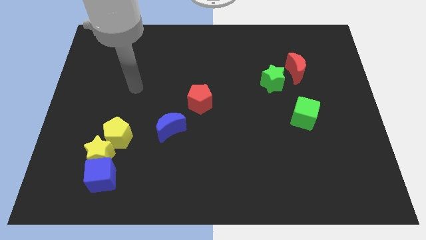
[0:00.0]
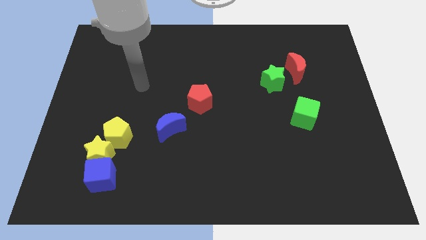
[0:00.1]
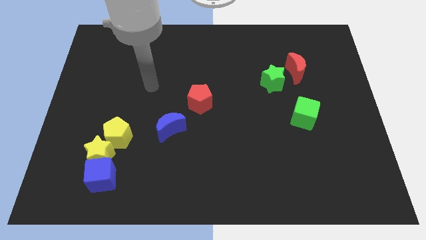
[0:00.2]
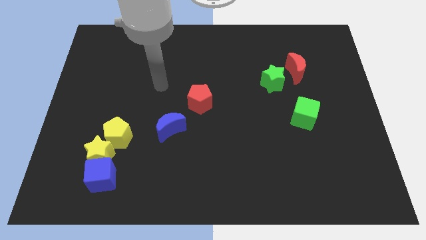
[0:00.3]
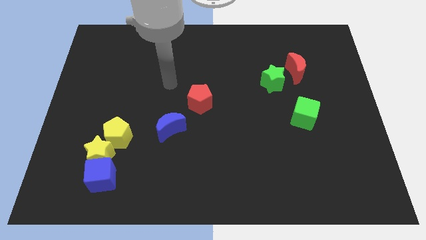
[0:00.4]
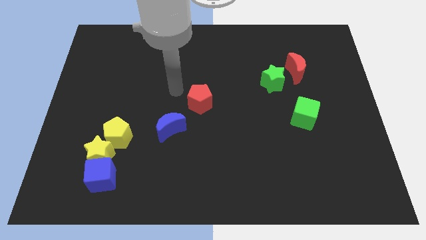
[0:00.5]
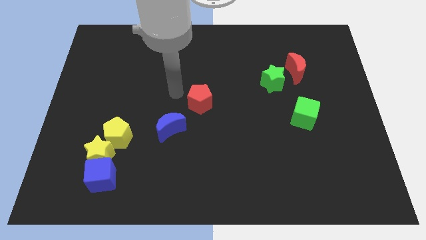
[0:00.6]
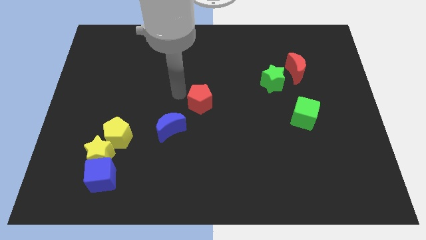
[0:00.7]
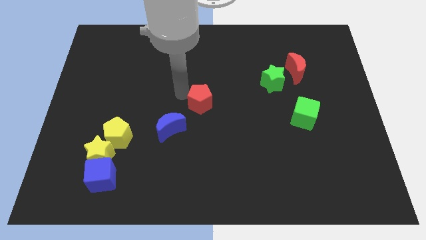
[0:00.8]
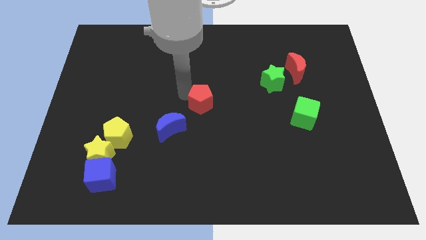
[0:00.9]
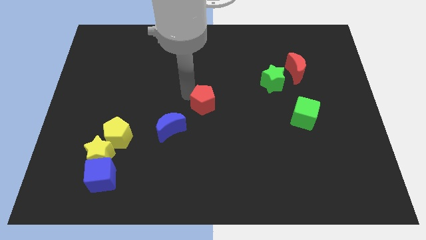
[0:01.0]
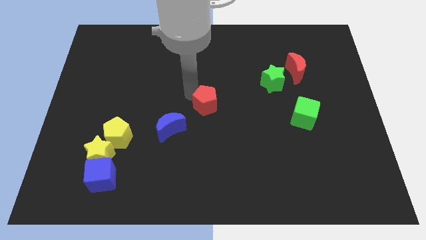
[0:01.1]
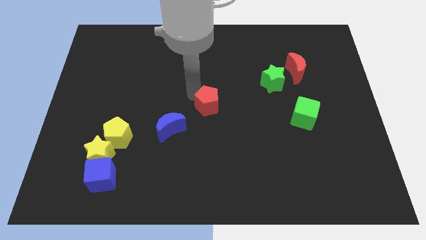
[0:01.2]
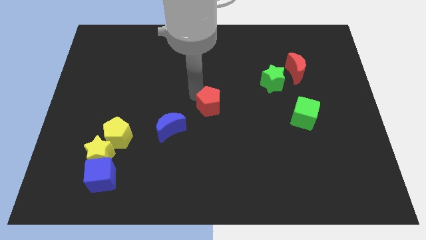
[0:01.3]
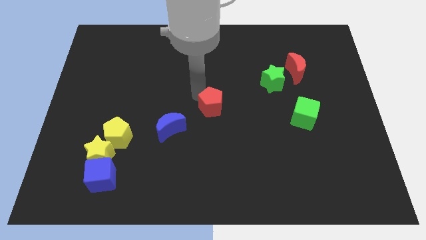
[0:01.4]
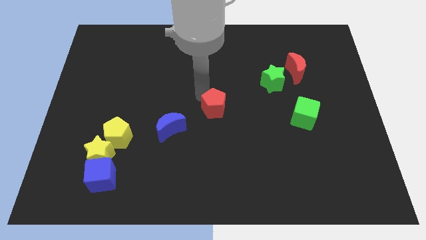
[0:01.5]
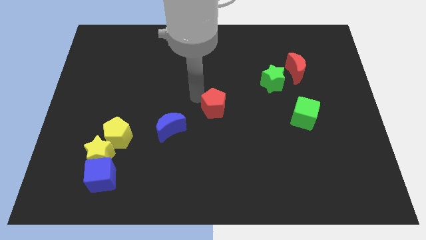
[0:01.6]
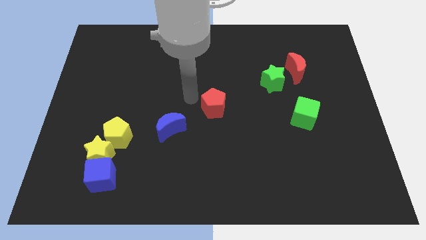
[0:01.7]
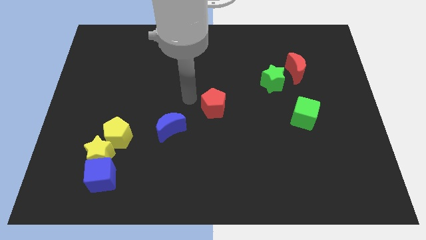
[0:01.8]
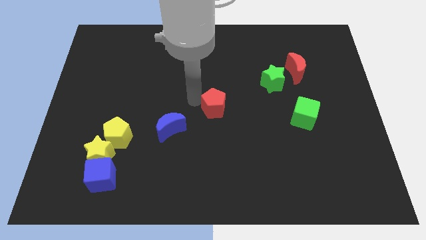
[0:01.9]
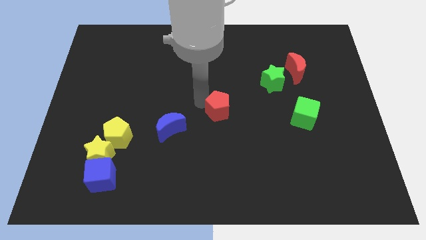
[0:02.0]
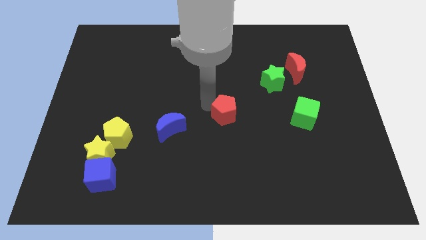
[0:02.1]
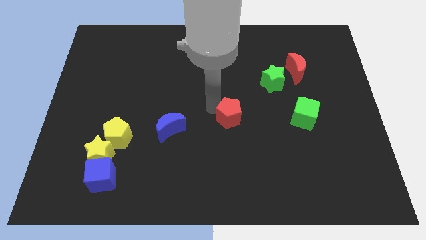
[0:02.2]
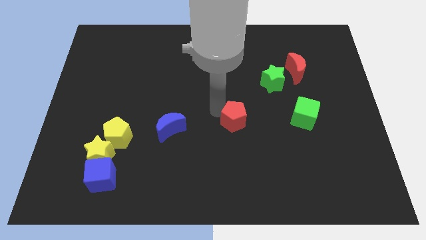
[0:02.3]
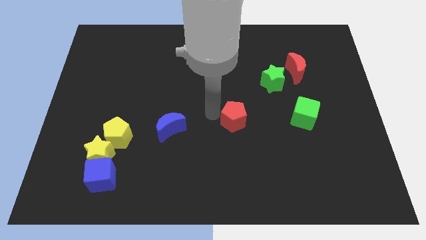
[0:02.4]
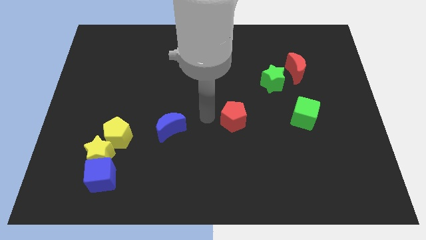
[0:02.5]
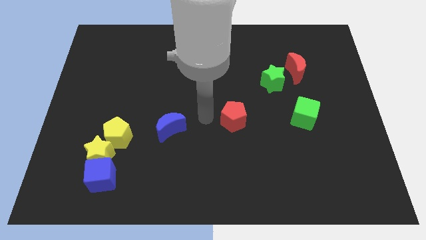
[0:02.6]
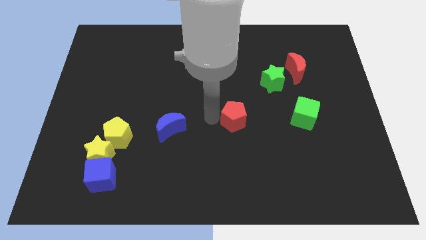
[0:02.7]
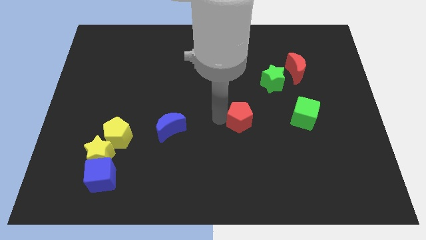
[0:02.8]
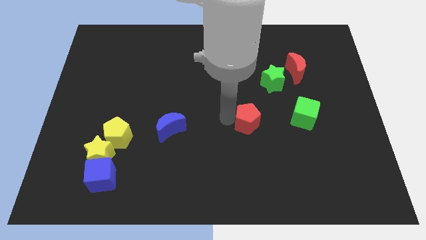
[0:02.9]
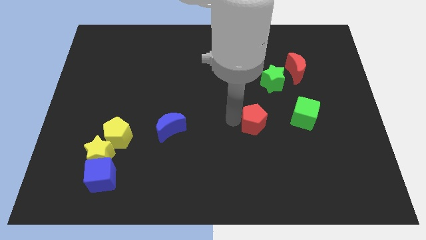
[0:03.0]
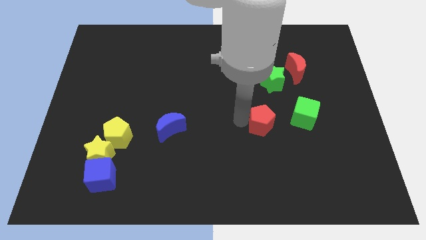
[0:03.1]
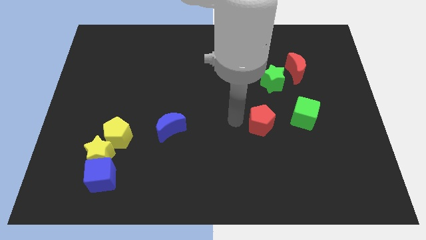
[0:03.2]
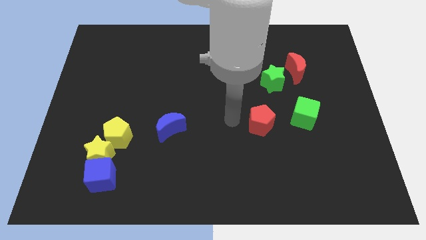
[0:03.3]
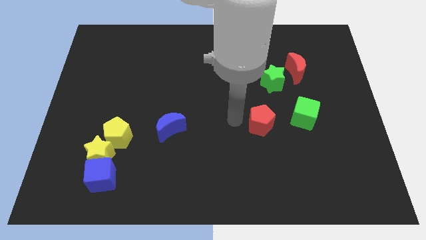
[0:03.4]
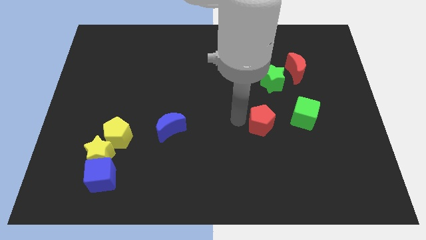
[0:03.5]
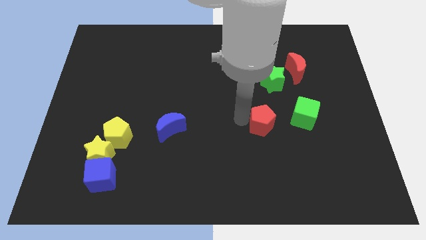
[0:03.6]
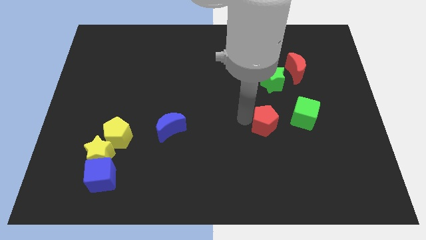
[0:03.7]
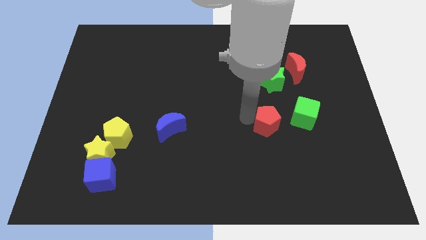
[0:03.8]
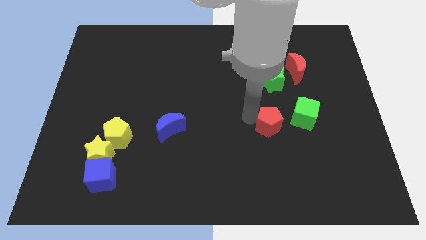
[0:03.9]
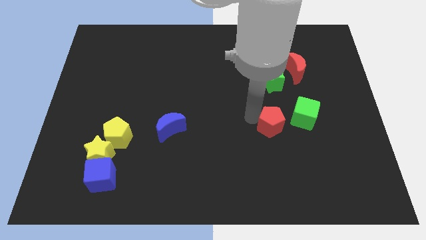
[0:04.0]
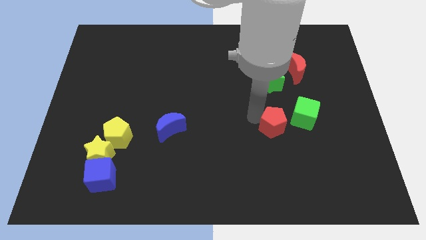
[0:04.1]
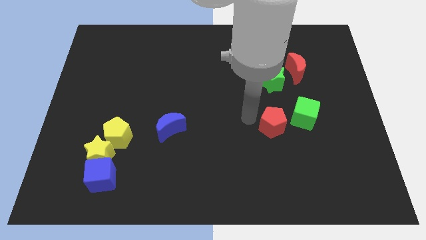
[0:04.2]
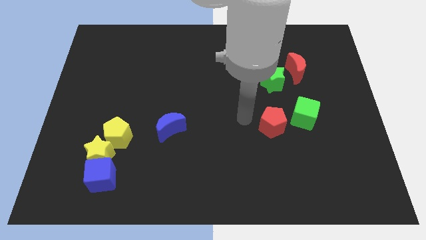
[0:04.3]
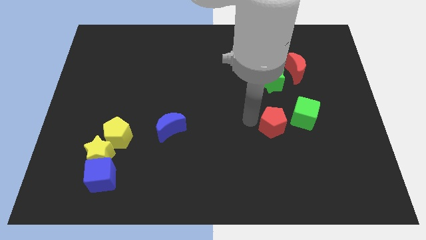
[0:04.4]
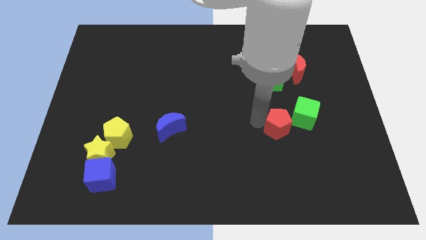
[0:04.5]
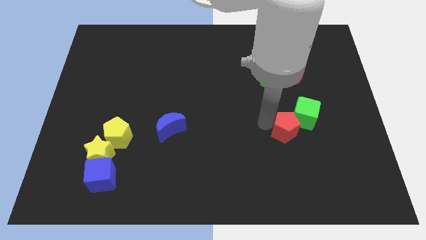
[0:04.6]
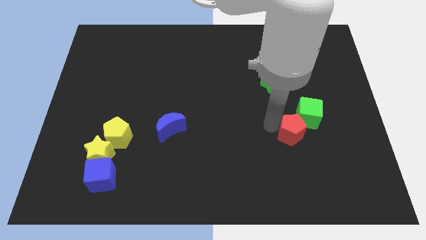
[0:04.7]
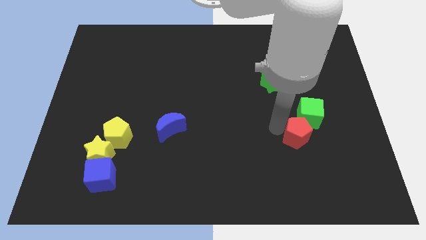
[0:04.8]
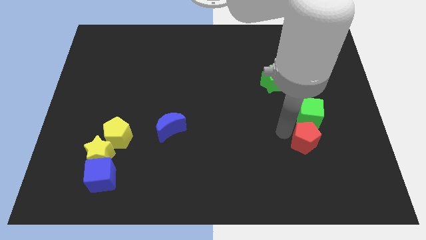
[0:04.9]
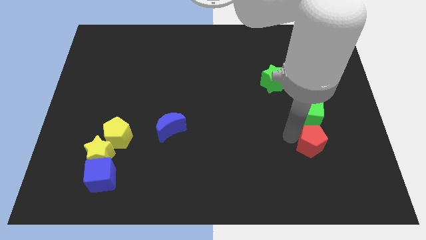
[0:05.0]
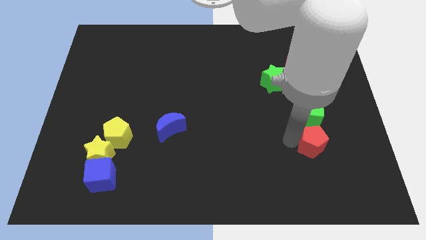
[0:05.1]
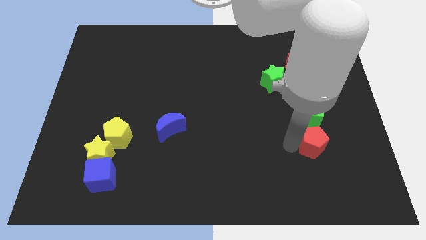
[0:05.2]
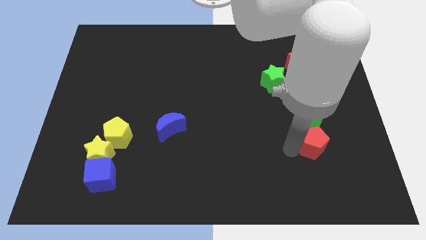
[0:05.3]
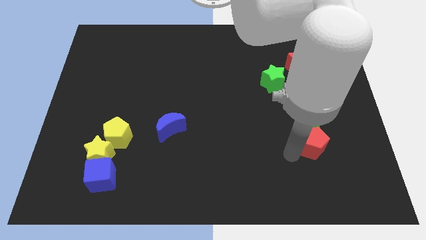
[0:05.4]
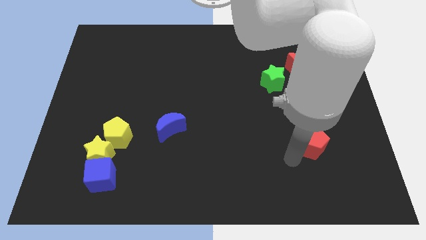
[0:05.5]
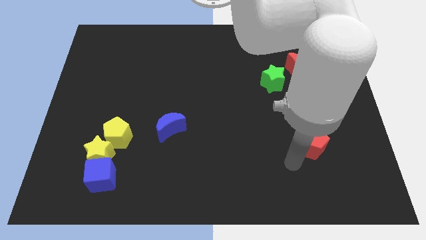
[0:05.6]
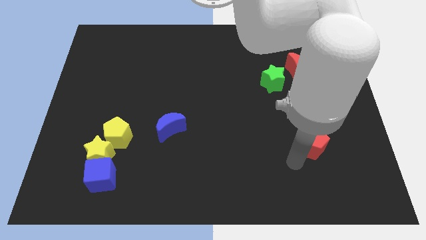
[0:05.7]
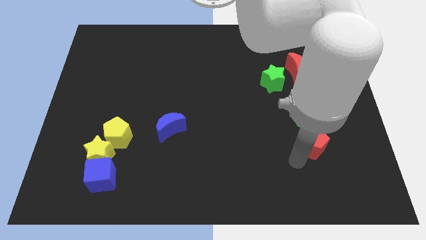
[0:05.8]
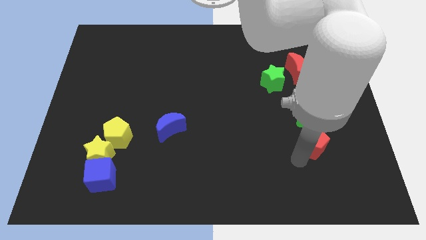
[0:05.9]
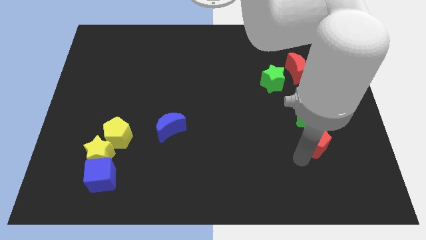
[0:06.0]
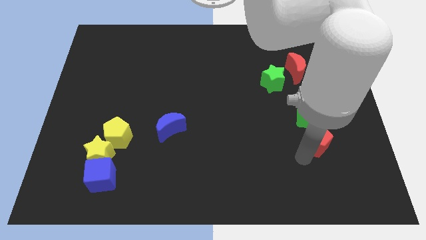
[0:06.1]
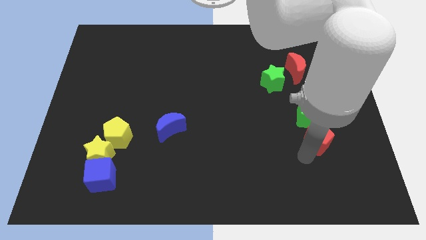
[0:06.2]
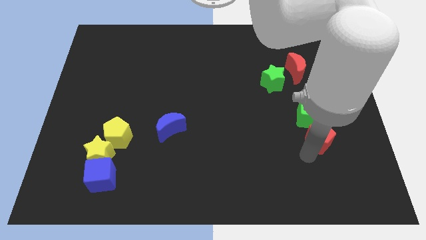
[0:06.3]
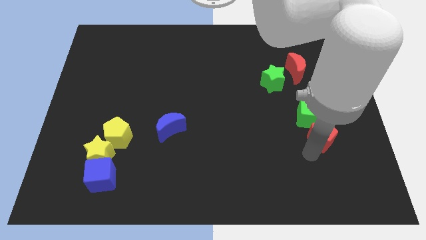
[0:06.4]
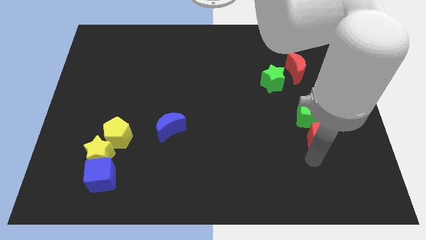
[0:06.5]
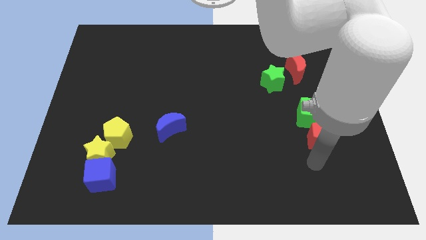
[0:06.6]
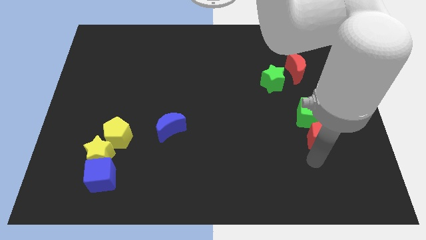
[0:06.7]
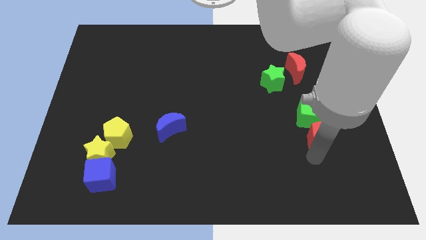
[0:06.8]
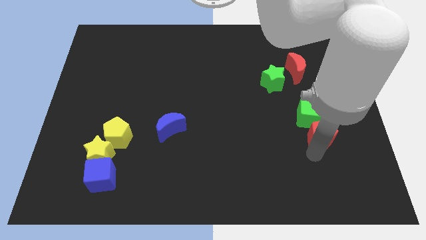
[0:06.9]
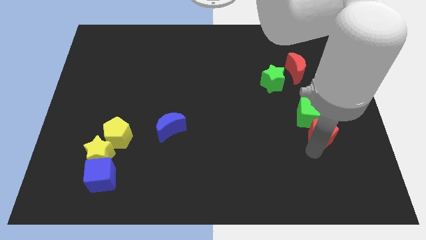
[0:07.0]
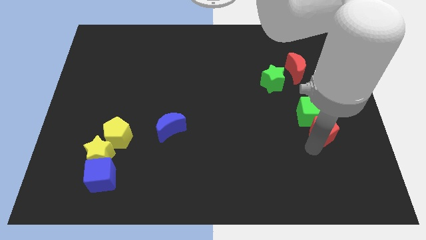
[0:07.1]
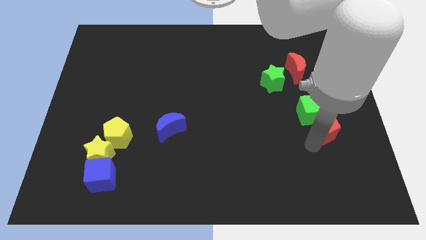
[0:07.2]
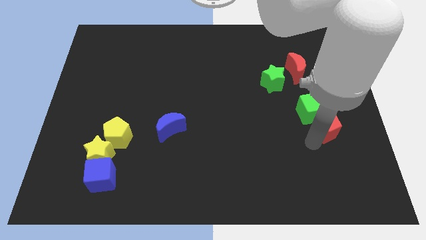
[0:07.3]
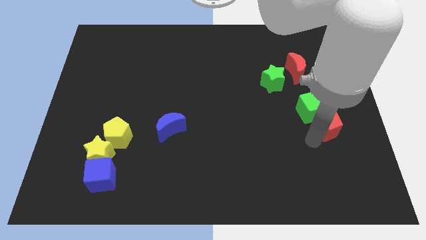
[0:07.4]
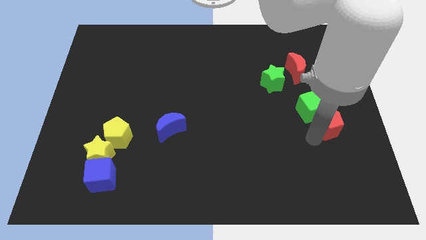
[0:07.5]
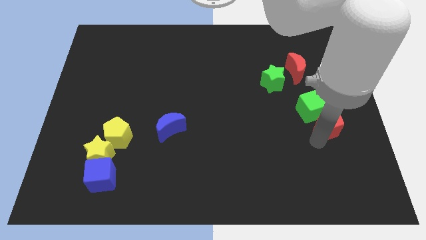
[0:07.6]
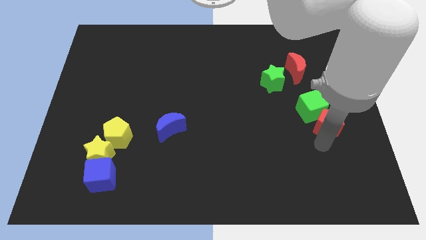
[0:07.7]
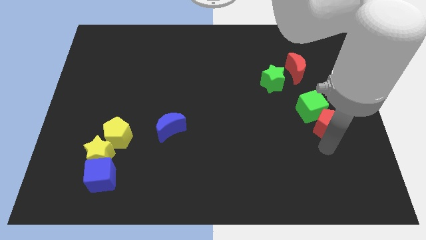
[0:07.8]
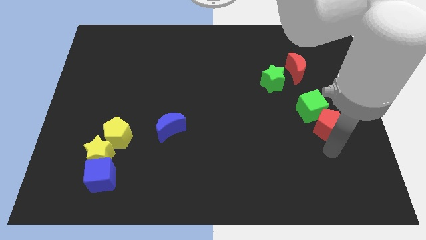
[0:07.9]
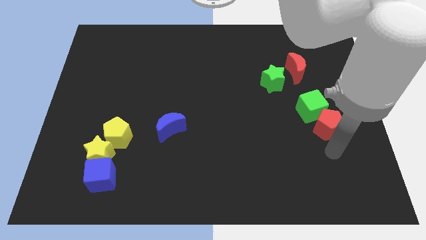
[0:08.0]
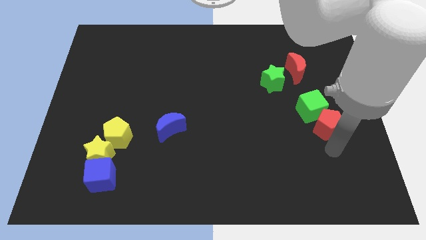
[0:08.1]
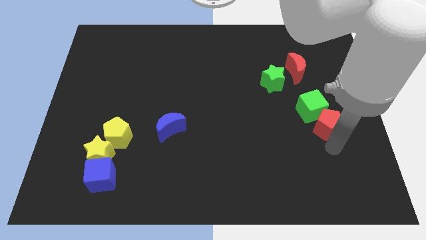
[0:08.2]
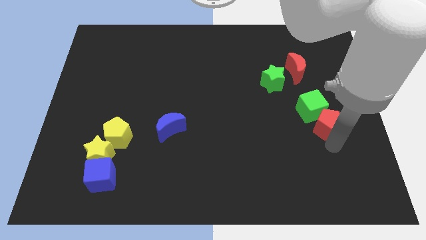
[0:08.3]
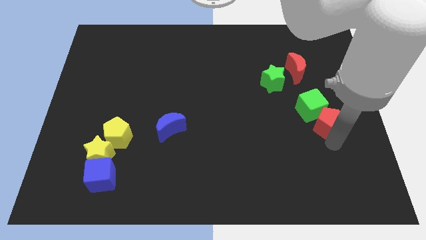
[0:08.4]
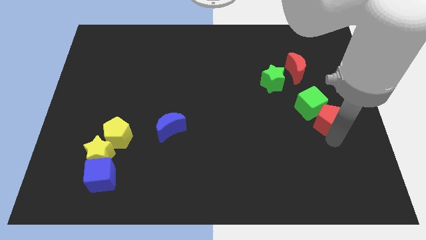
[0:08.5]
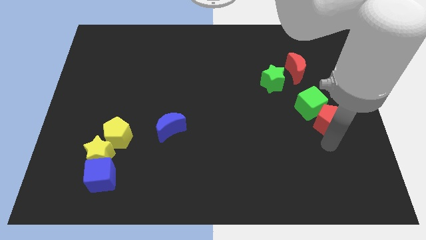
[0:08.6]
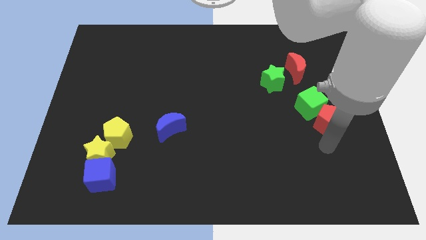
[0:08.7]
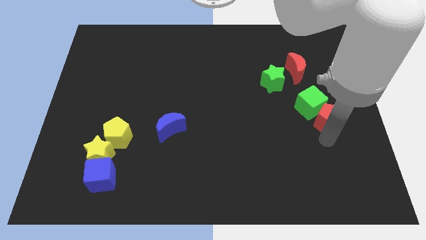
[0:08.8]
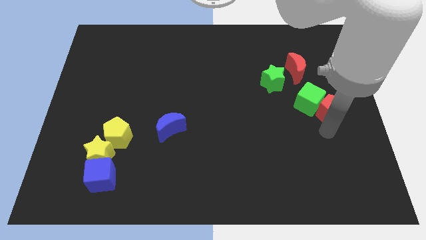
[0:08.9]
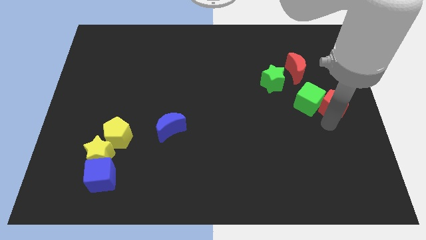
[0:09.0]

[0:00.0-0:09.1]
push the red pentagon diagonally up and to the right of the green cube
